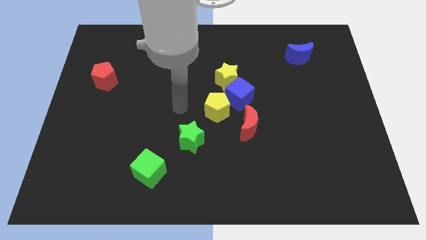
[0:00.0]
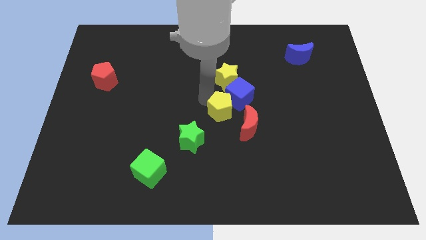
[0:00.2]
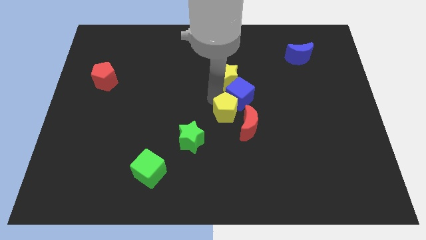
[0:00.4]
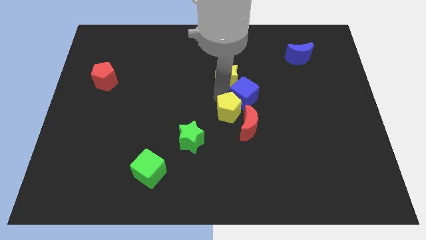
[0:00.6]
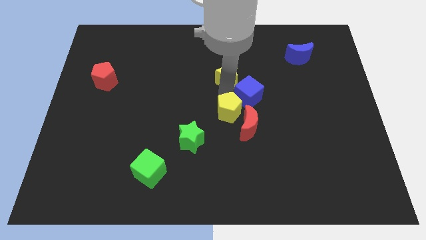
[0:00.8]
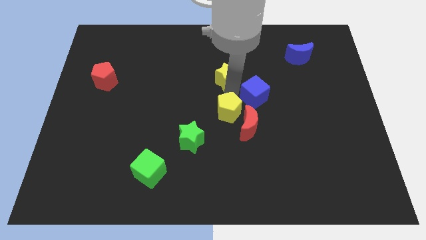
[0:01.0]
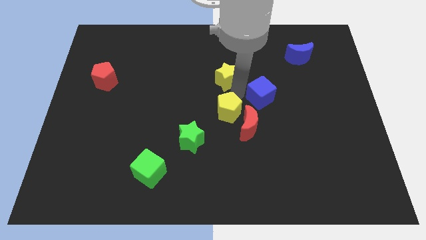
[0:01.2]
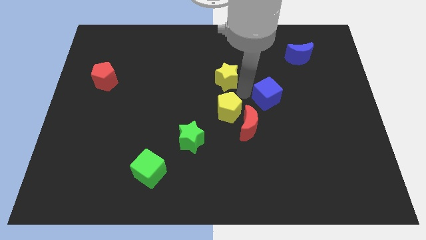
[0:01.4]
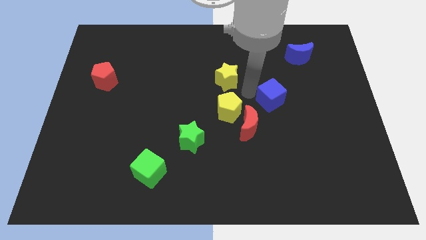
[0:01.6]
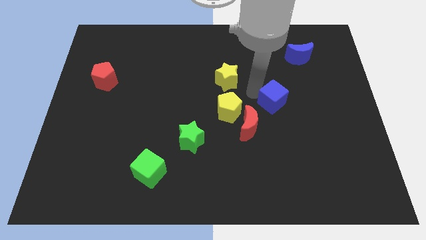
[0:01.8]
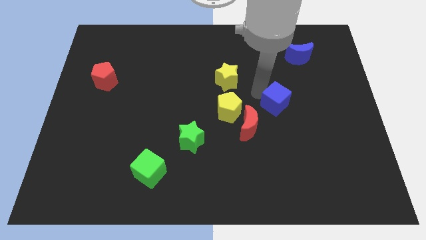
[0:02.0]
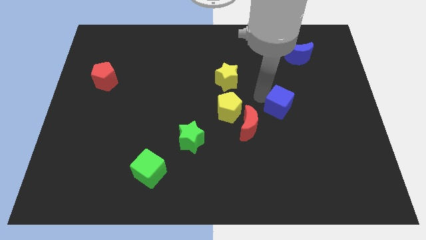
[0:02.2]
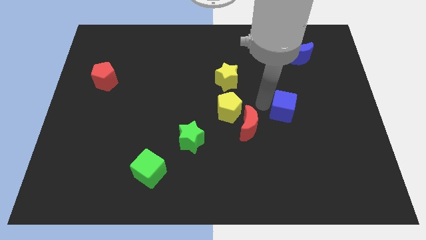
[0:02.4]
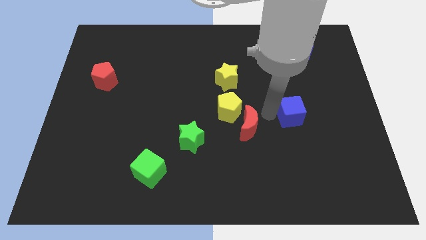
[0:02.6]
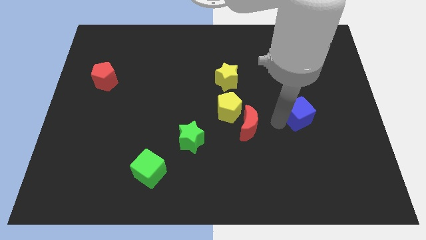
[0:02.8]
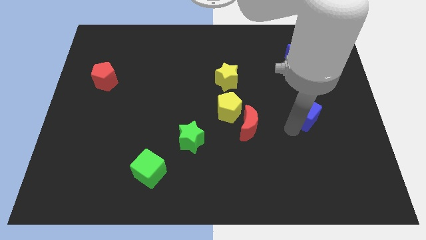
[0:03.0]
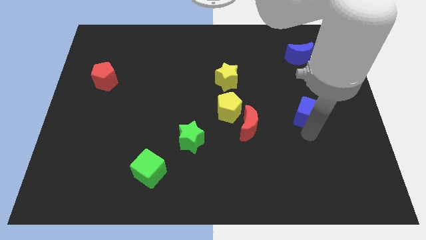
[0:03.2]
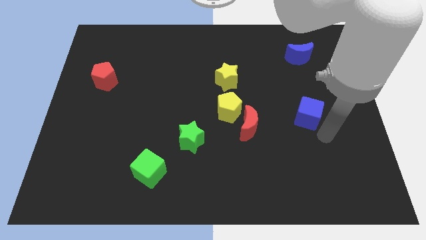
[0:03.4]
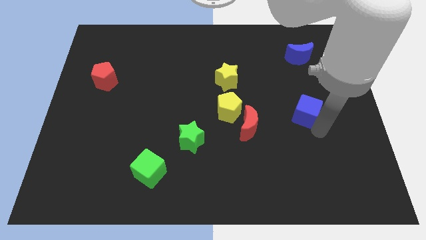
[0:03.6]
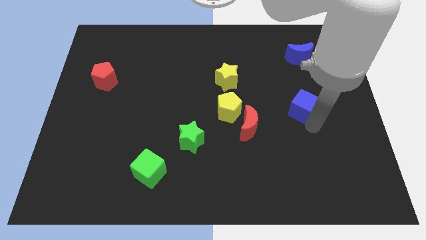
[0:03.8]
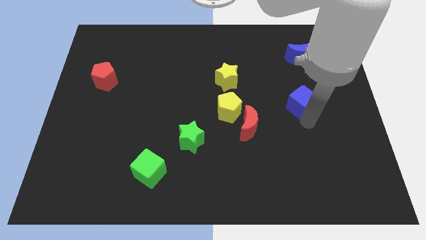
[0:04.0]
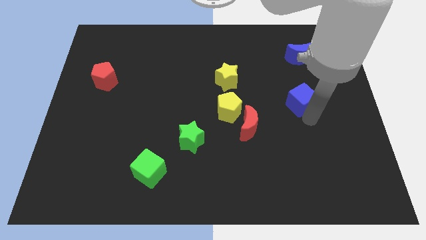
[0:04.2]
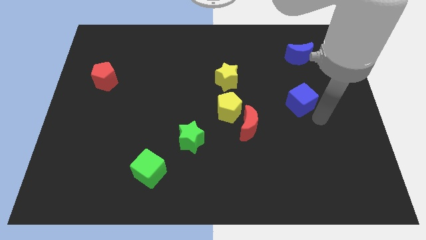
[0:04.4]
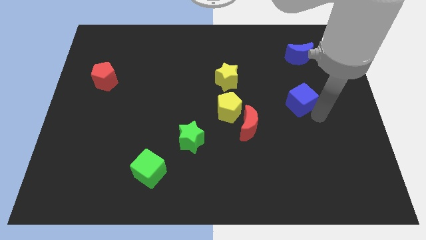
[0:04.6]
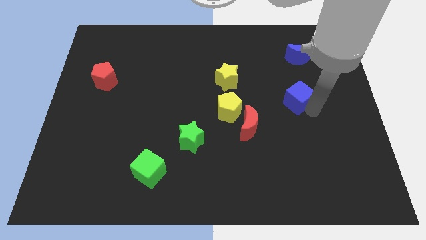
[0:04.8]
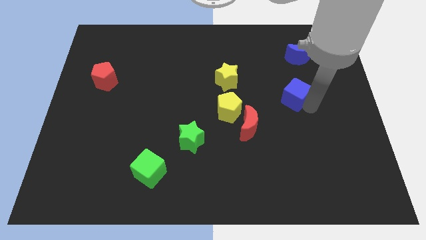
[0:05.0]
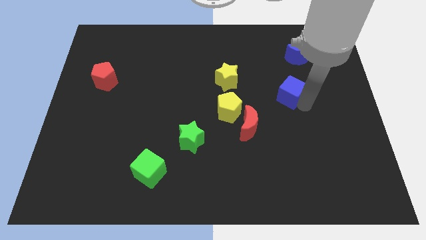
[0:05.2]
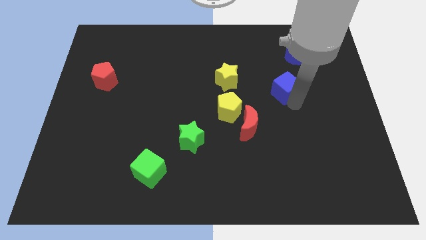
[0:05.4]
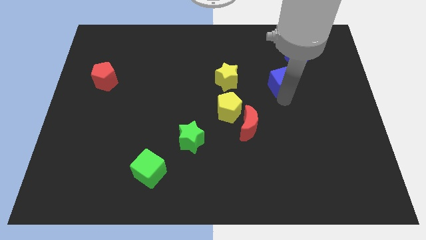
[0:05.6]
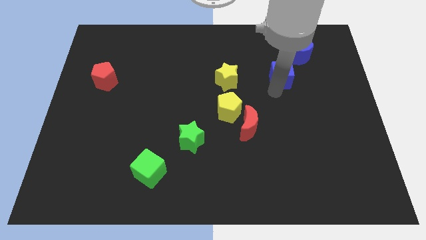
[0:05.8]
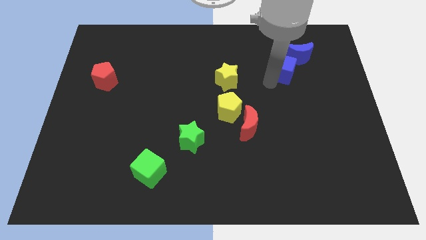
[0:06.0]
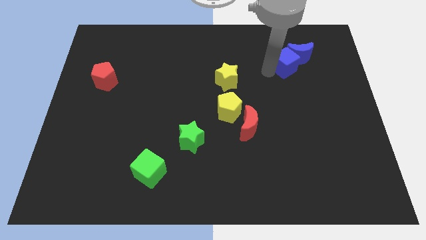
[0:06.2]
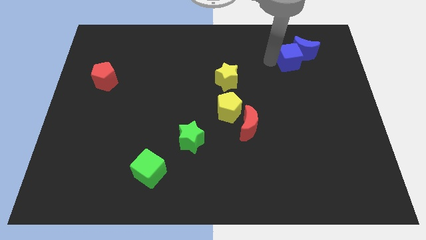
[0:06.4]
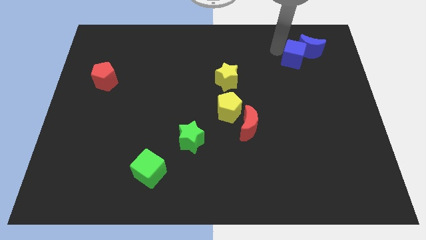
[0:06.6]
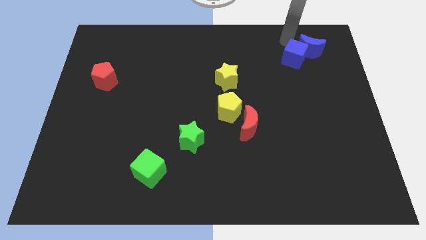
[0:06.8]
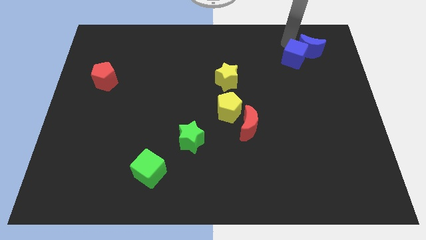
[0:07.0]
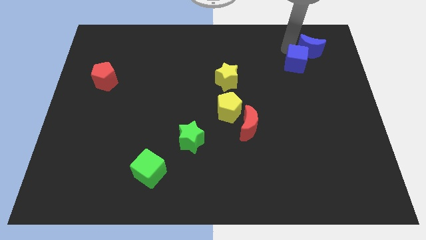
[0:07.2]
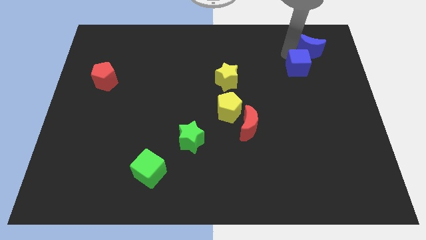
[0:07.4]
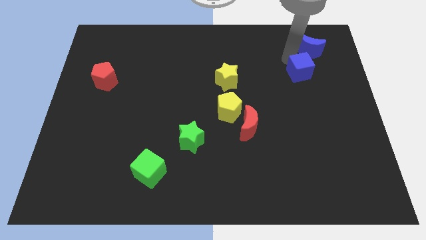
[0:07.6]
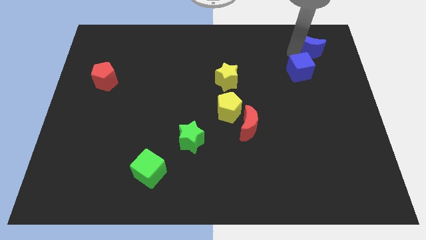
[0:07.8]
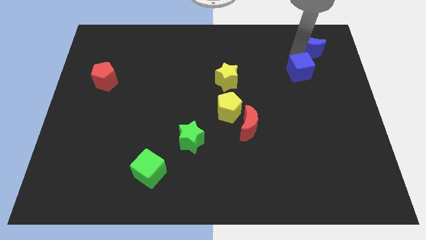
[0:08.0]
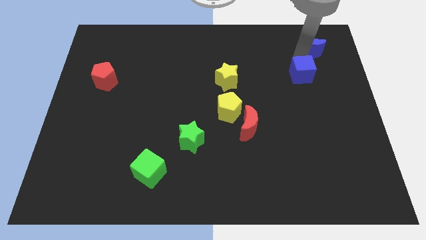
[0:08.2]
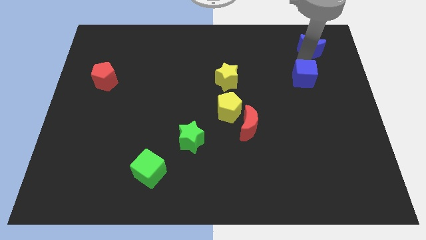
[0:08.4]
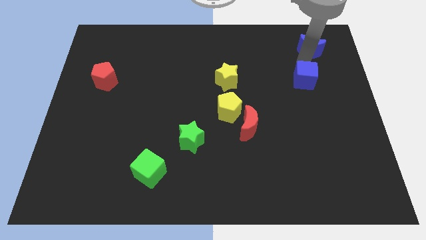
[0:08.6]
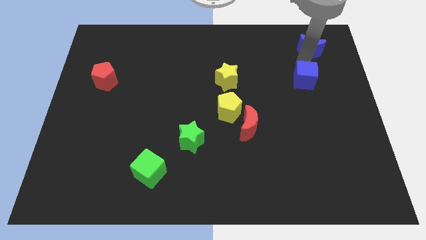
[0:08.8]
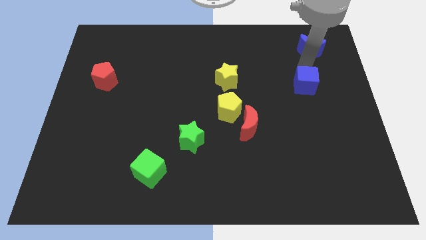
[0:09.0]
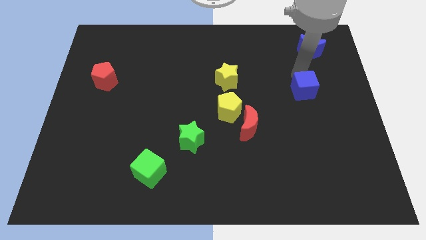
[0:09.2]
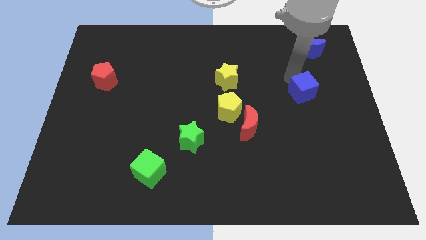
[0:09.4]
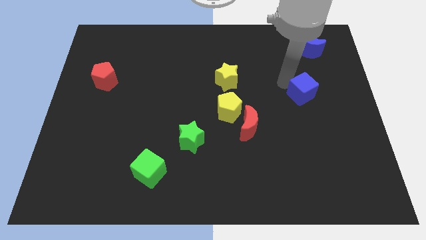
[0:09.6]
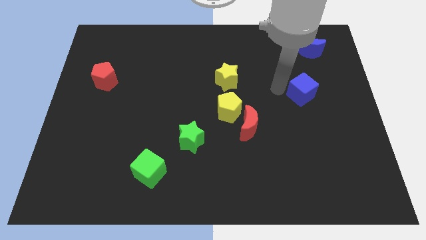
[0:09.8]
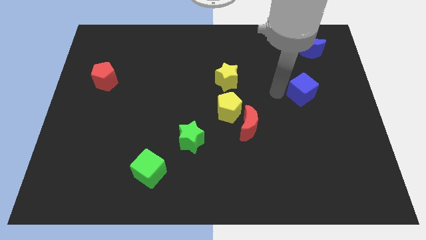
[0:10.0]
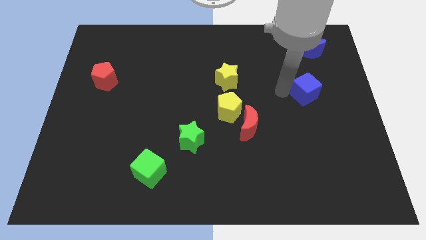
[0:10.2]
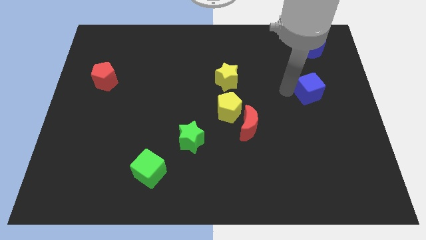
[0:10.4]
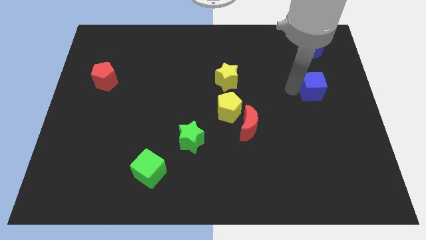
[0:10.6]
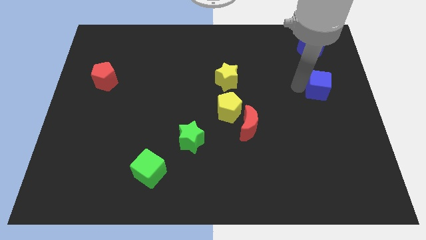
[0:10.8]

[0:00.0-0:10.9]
move the blue cube to the center right
